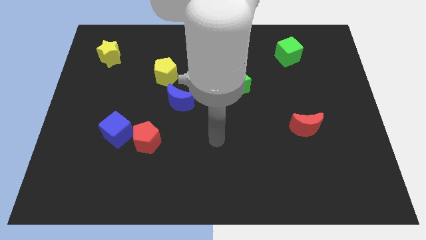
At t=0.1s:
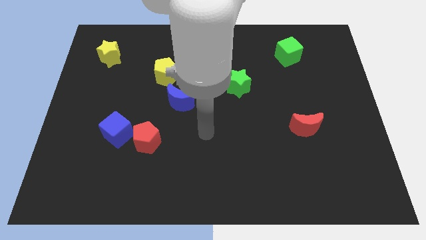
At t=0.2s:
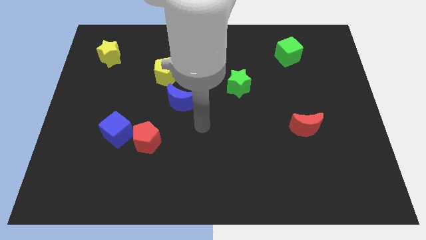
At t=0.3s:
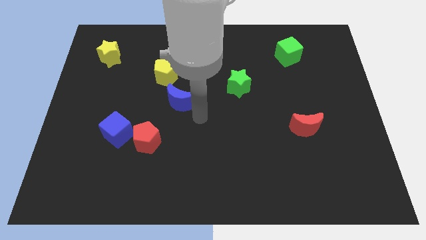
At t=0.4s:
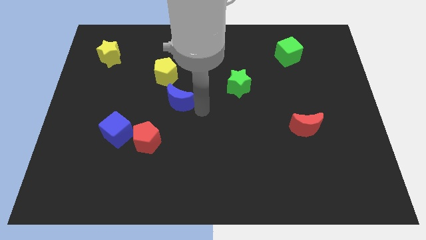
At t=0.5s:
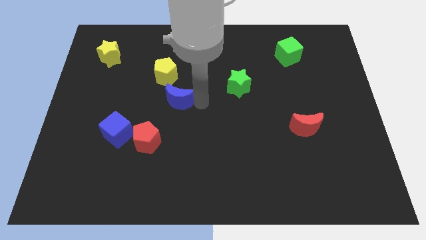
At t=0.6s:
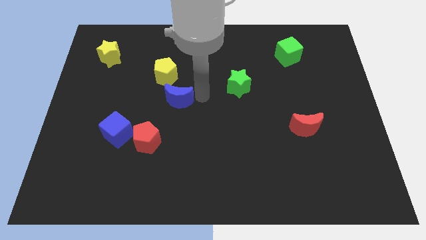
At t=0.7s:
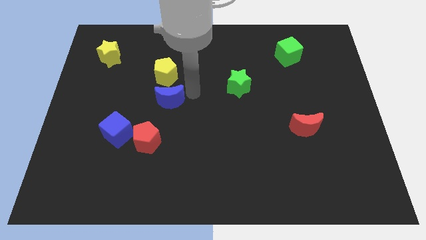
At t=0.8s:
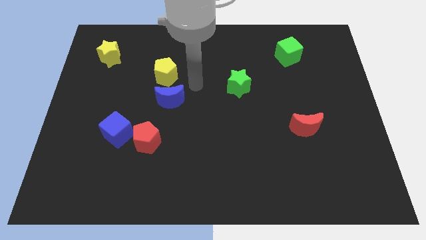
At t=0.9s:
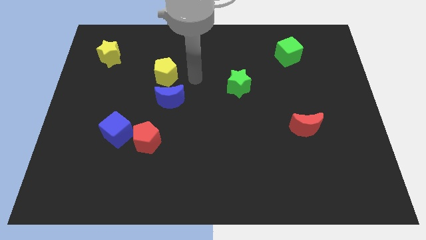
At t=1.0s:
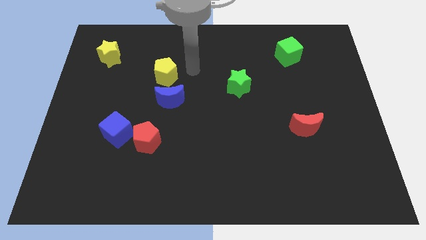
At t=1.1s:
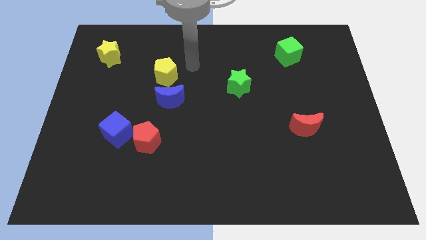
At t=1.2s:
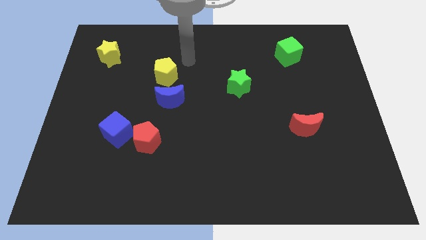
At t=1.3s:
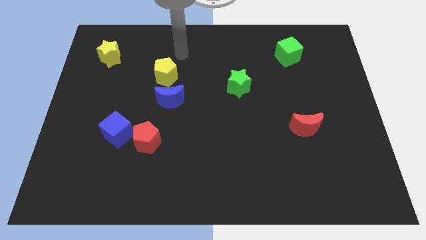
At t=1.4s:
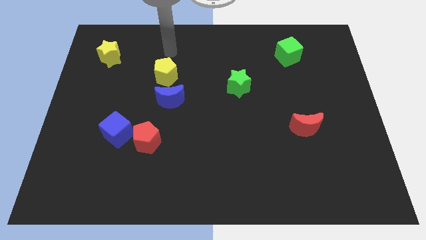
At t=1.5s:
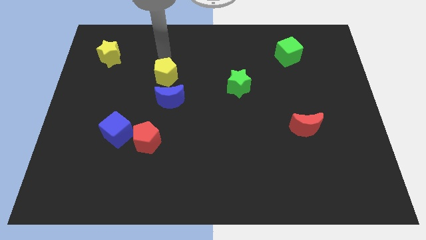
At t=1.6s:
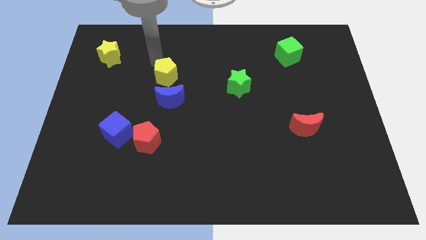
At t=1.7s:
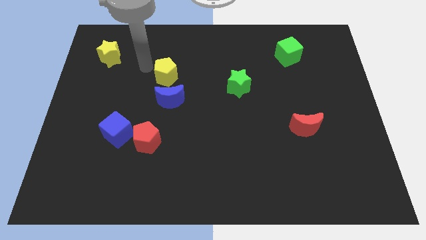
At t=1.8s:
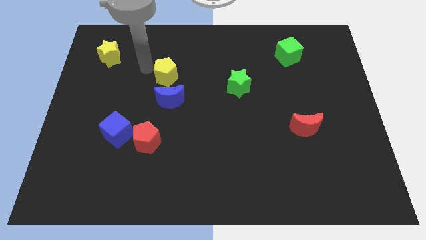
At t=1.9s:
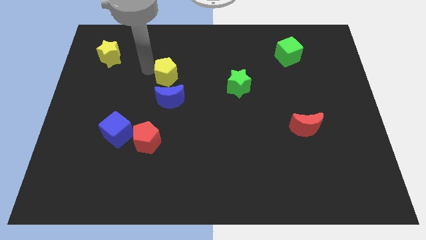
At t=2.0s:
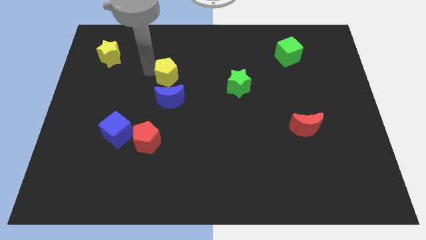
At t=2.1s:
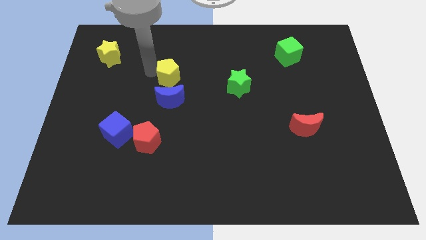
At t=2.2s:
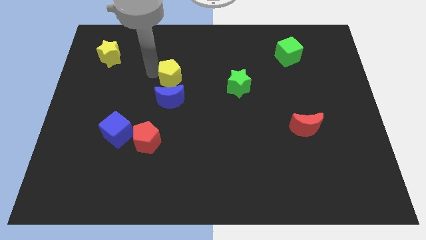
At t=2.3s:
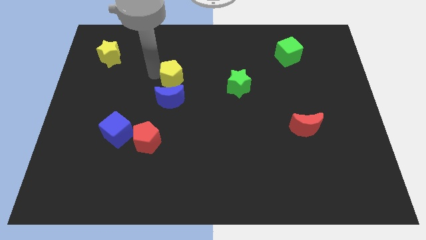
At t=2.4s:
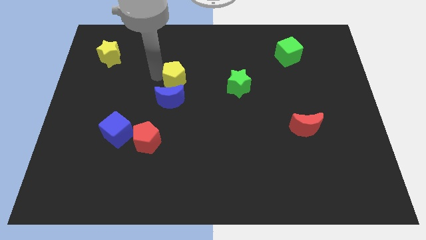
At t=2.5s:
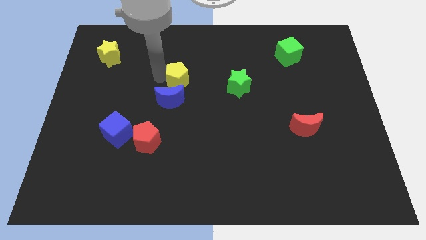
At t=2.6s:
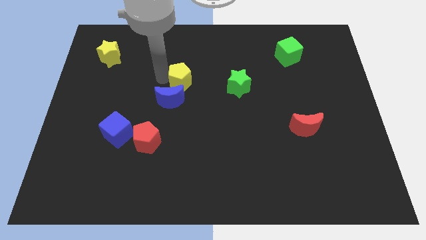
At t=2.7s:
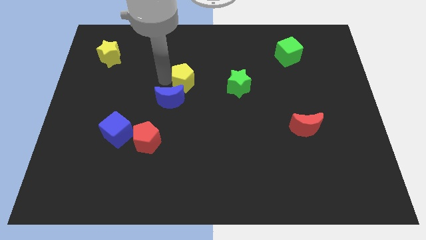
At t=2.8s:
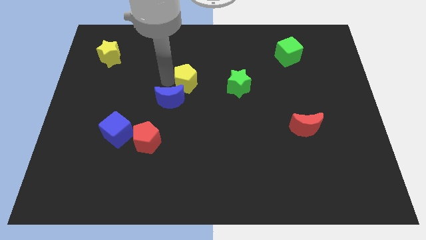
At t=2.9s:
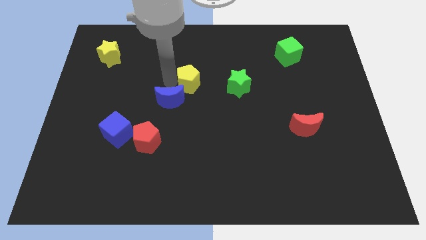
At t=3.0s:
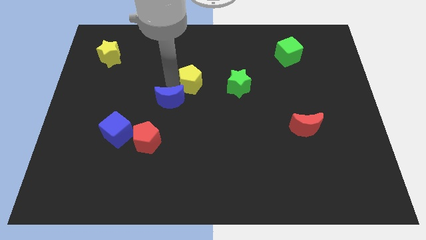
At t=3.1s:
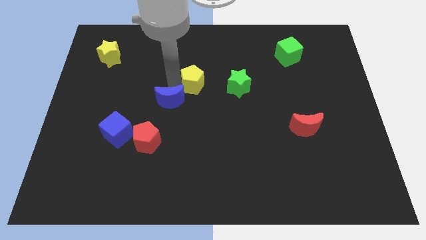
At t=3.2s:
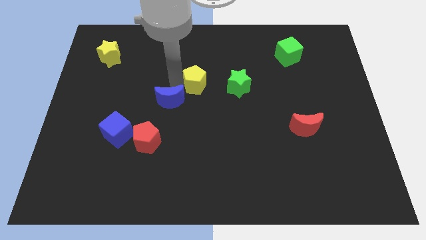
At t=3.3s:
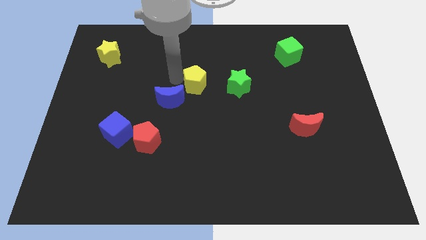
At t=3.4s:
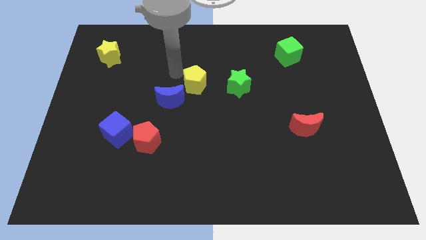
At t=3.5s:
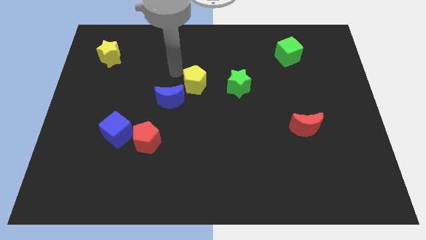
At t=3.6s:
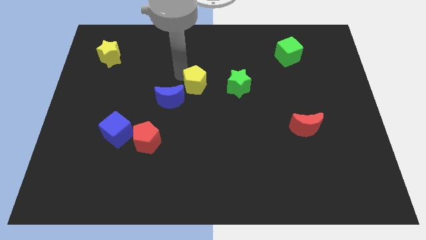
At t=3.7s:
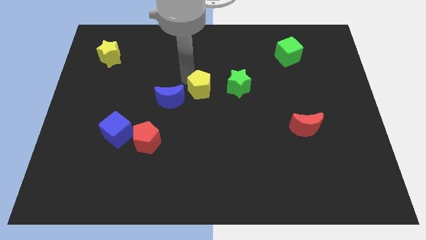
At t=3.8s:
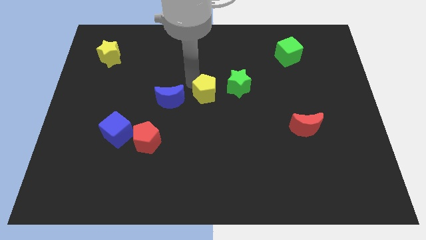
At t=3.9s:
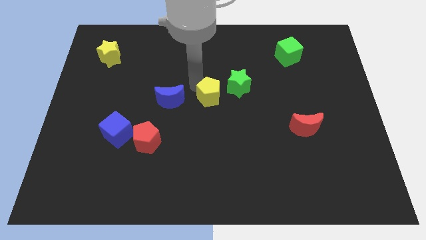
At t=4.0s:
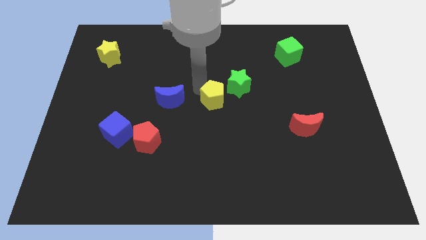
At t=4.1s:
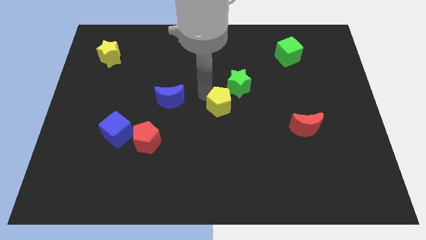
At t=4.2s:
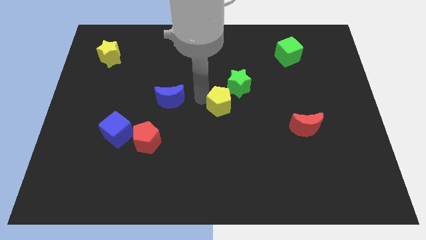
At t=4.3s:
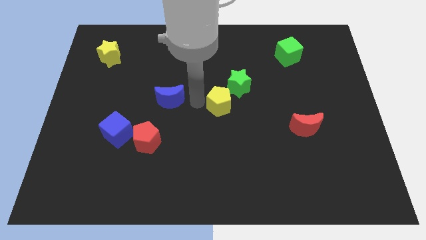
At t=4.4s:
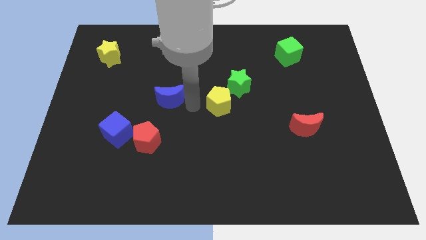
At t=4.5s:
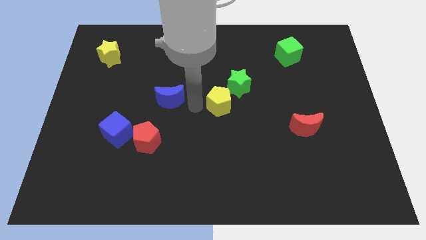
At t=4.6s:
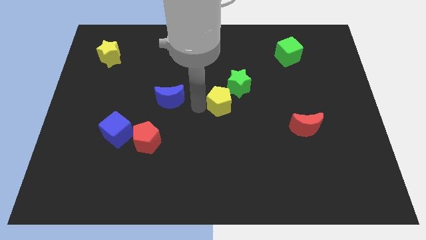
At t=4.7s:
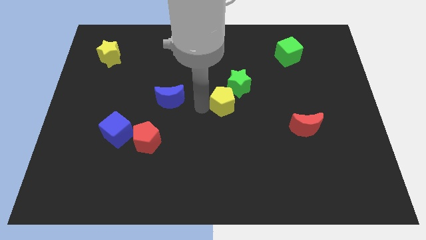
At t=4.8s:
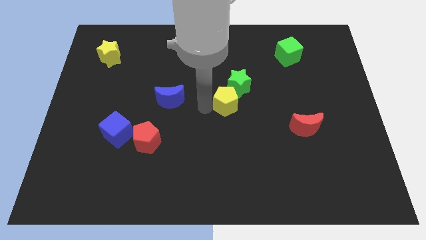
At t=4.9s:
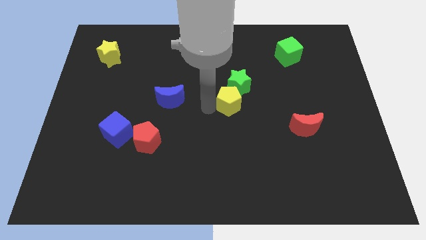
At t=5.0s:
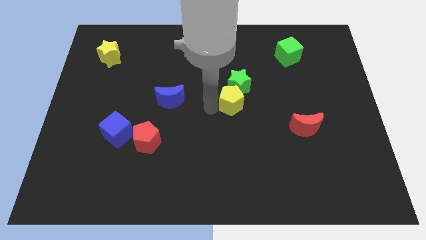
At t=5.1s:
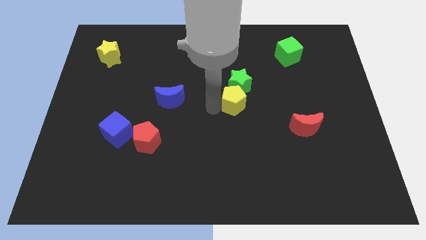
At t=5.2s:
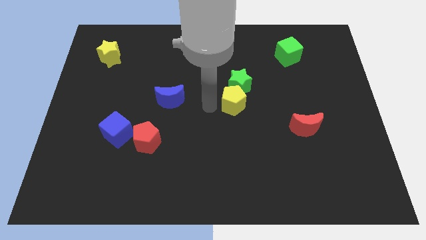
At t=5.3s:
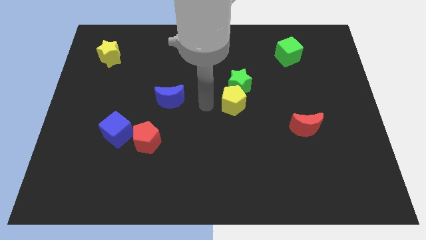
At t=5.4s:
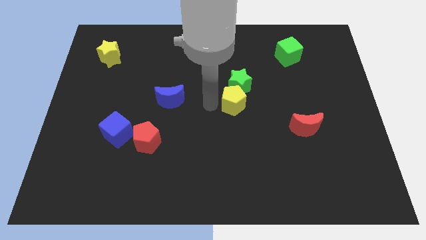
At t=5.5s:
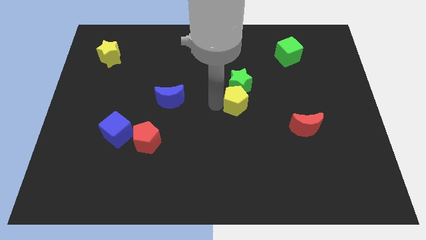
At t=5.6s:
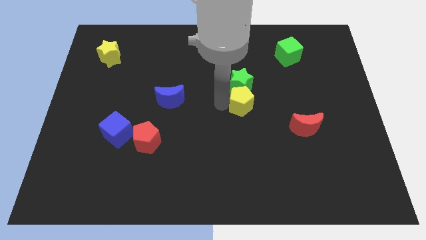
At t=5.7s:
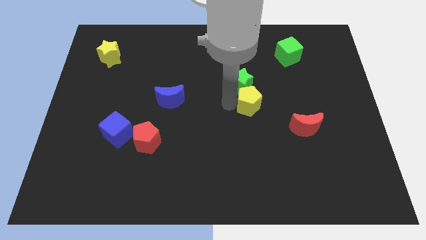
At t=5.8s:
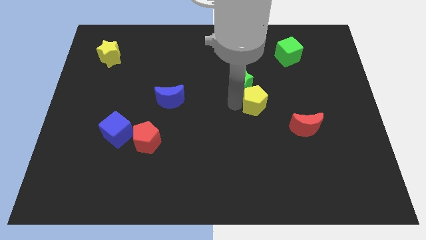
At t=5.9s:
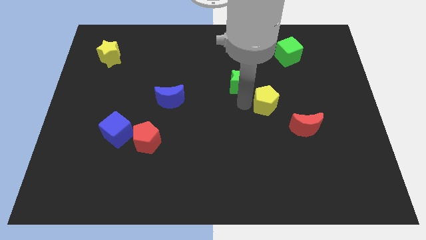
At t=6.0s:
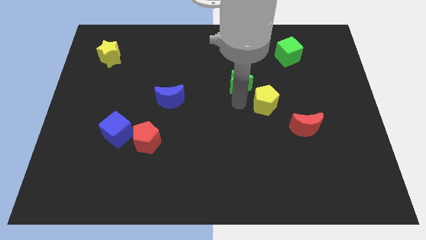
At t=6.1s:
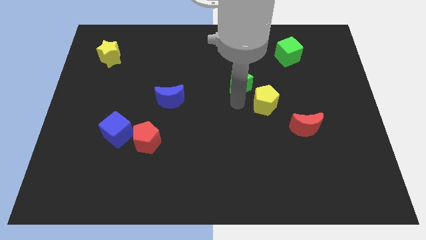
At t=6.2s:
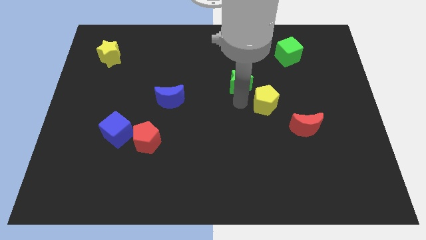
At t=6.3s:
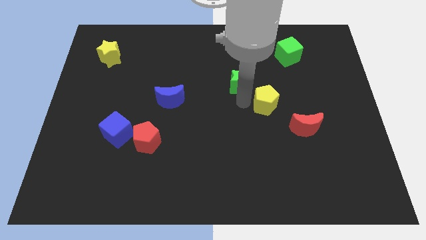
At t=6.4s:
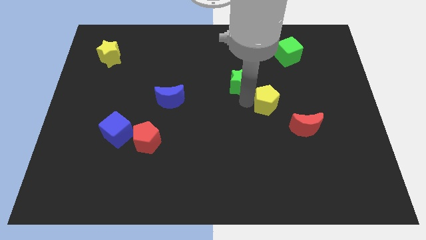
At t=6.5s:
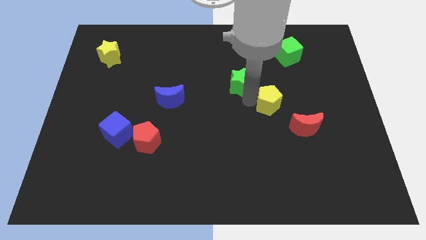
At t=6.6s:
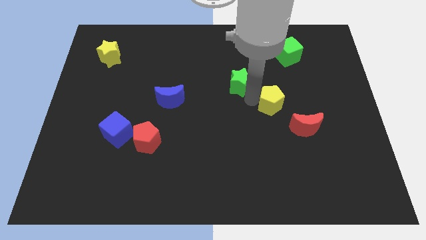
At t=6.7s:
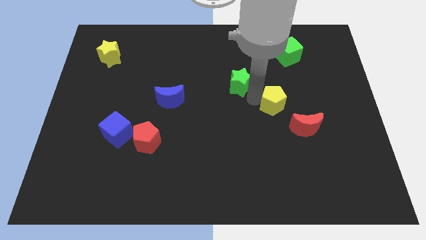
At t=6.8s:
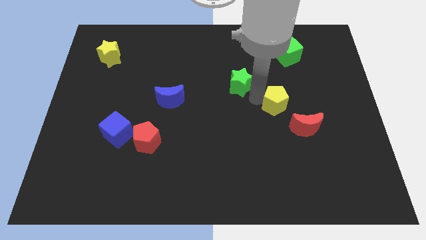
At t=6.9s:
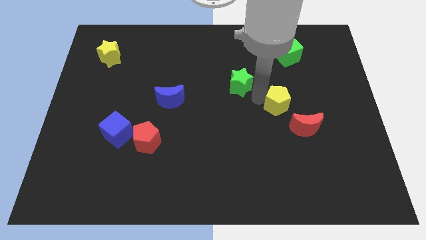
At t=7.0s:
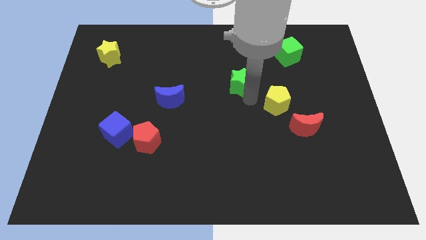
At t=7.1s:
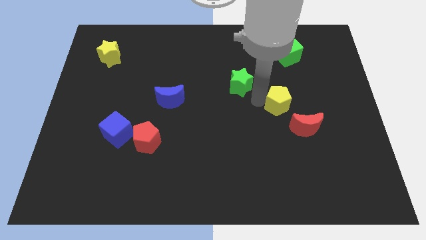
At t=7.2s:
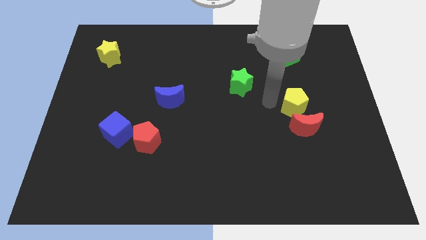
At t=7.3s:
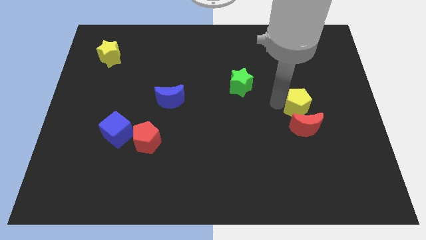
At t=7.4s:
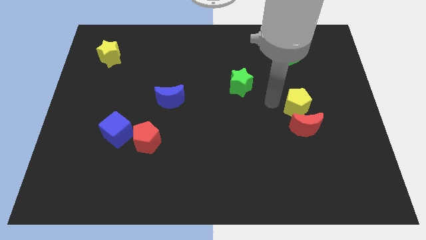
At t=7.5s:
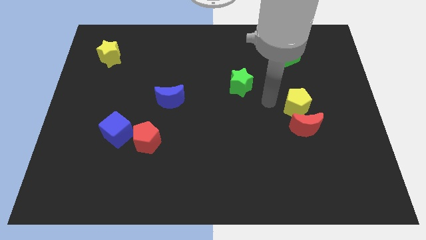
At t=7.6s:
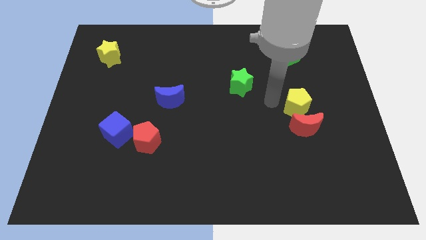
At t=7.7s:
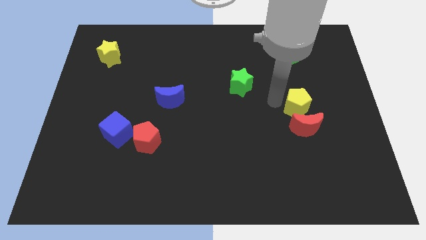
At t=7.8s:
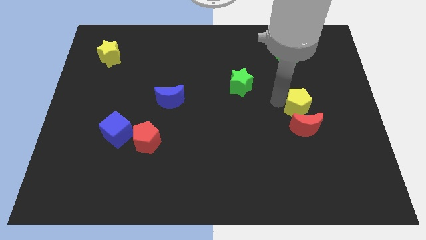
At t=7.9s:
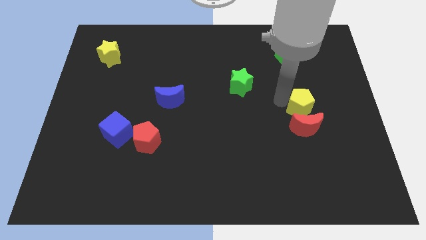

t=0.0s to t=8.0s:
push the yellow pentagon diagonally up and to the right of the red moon
